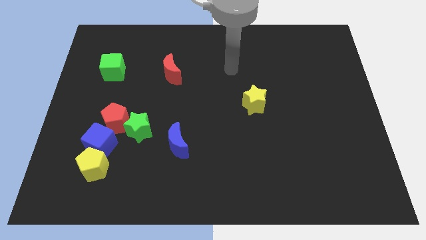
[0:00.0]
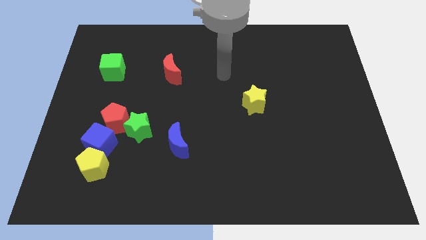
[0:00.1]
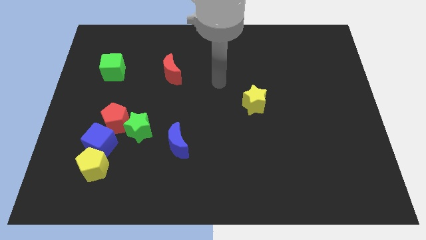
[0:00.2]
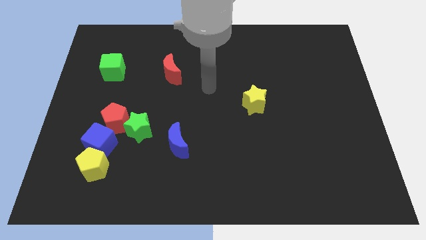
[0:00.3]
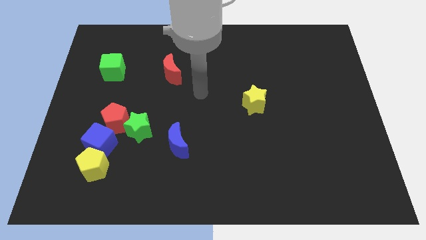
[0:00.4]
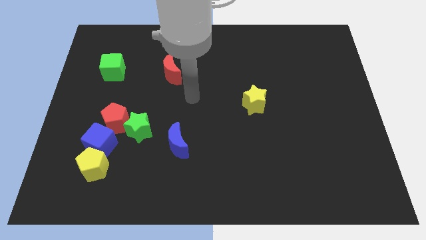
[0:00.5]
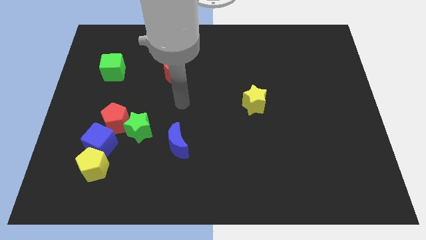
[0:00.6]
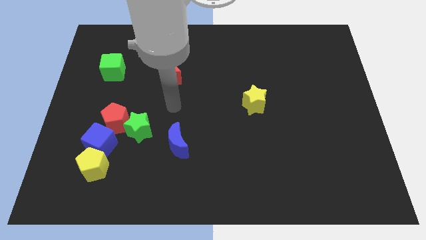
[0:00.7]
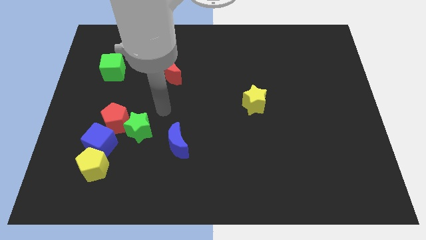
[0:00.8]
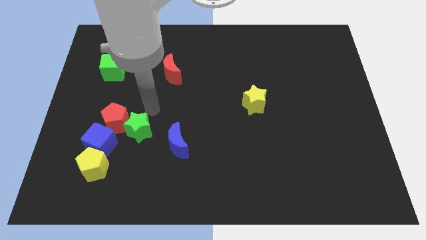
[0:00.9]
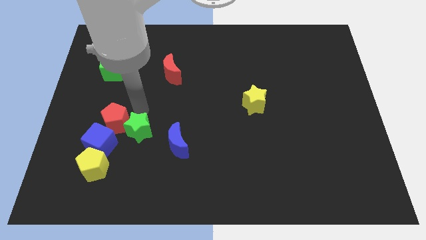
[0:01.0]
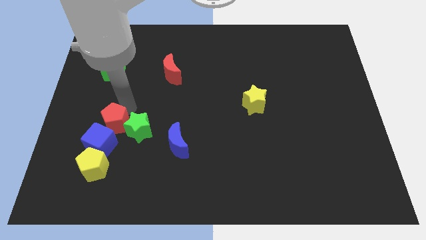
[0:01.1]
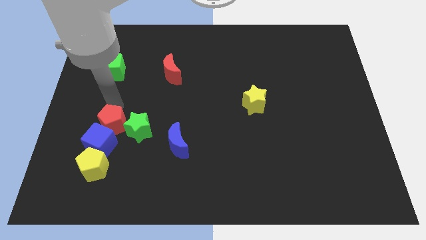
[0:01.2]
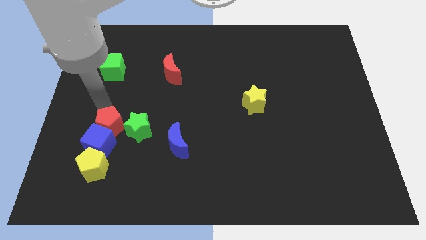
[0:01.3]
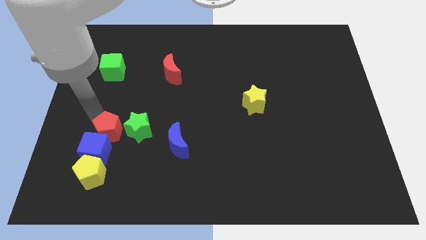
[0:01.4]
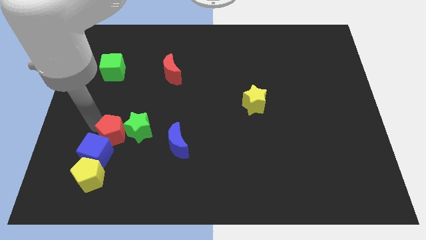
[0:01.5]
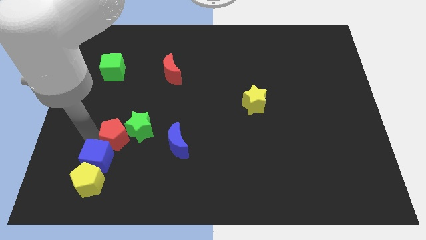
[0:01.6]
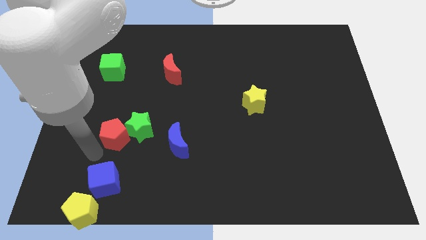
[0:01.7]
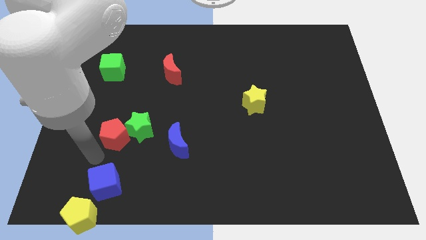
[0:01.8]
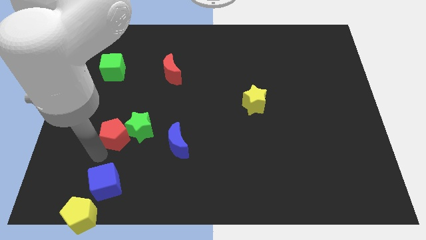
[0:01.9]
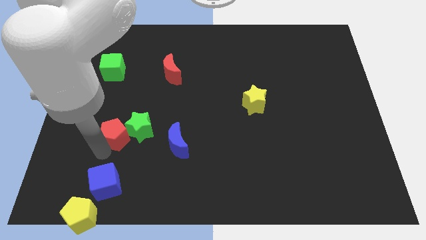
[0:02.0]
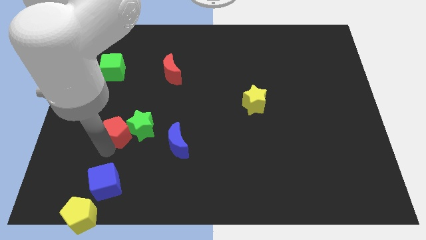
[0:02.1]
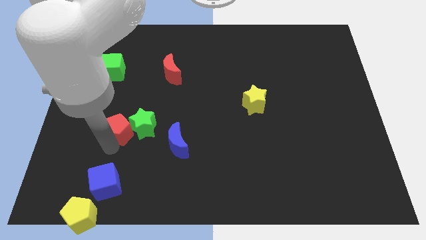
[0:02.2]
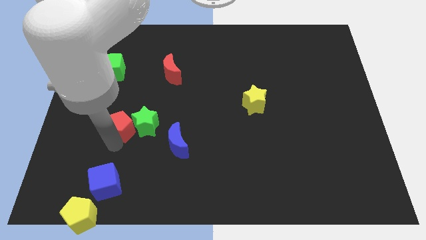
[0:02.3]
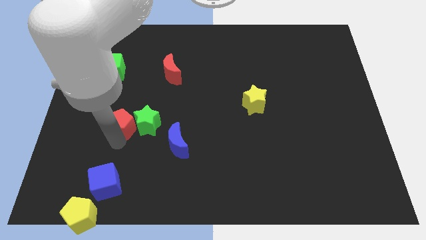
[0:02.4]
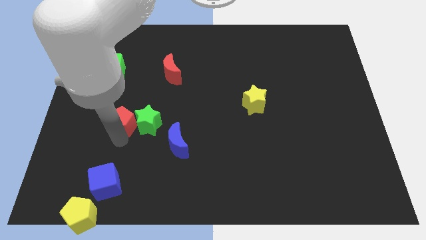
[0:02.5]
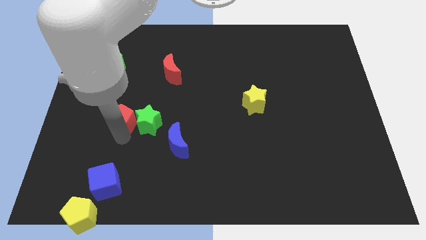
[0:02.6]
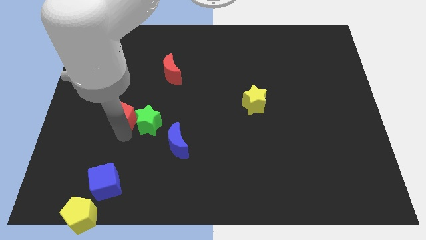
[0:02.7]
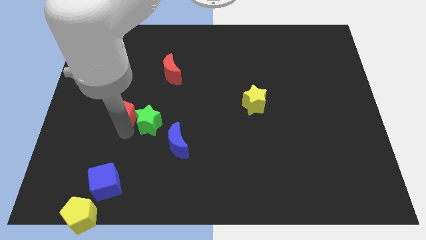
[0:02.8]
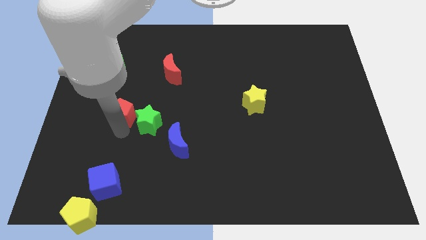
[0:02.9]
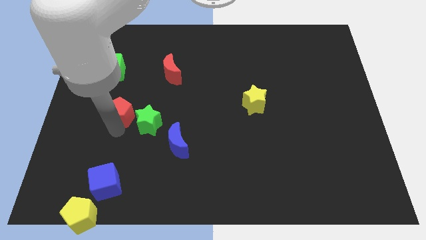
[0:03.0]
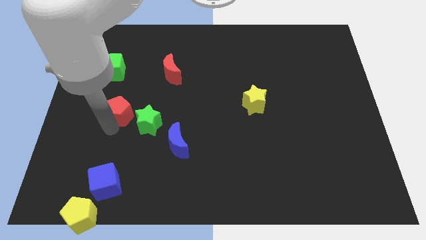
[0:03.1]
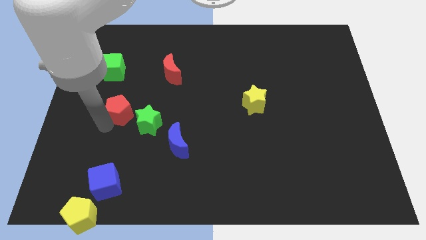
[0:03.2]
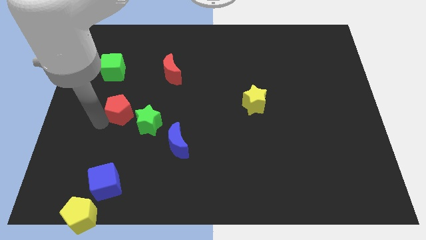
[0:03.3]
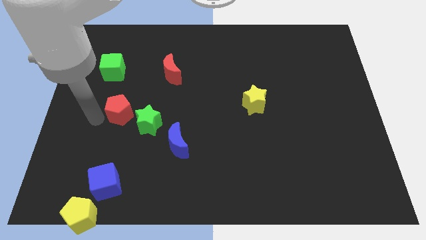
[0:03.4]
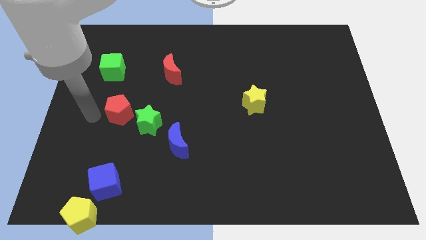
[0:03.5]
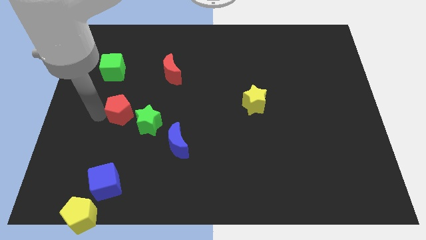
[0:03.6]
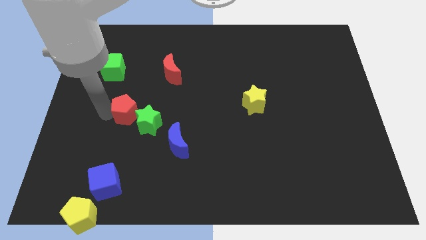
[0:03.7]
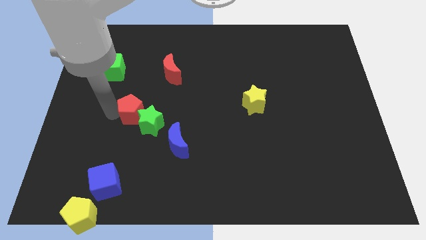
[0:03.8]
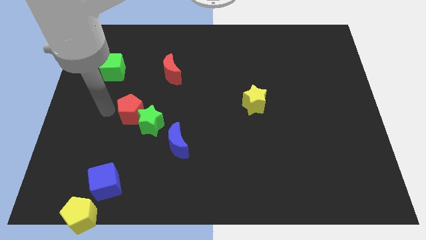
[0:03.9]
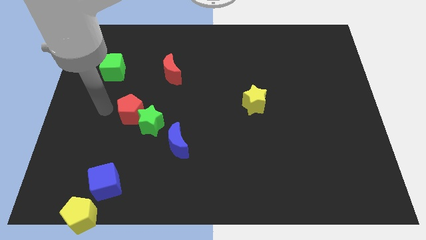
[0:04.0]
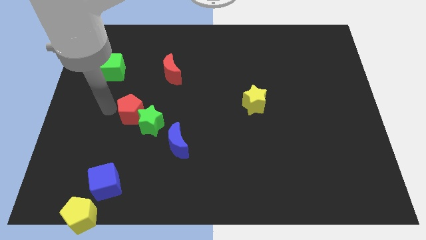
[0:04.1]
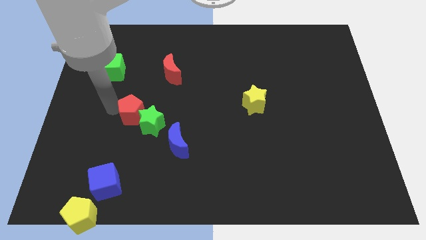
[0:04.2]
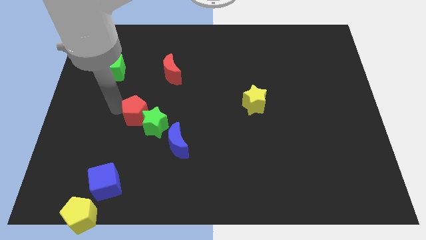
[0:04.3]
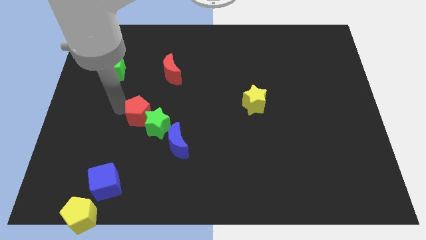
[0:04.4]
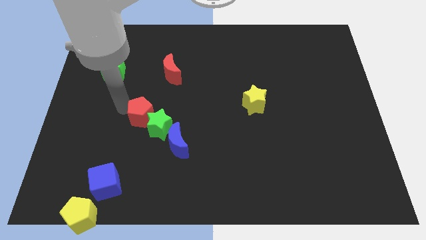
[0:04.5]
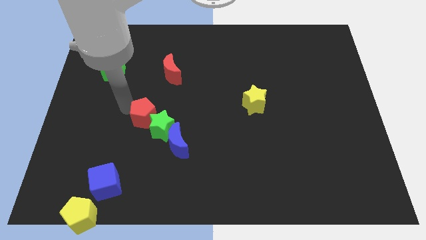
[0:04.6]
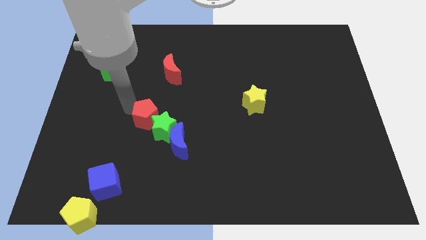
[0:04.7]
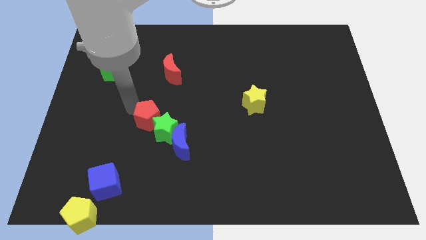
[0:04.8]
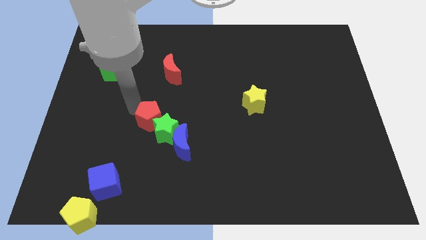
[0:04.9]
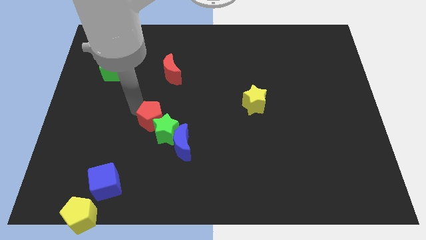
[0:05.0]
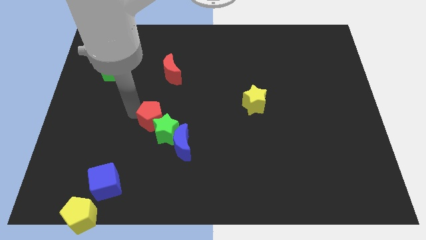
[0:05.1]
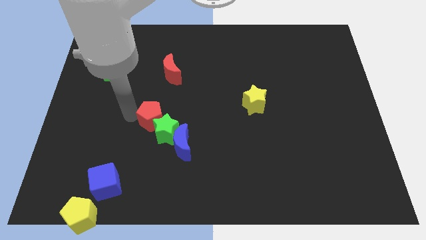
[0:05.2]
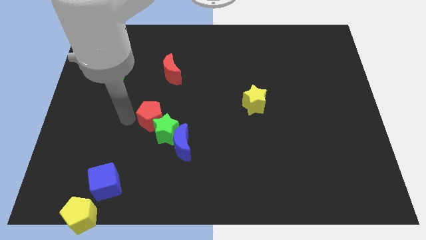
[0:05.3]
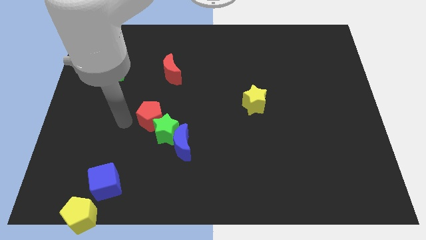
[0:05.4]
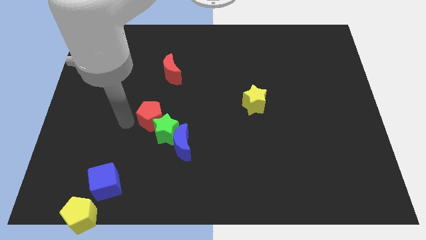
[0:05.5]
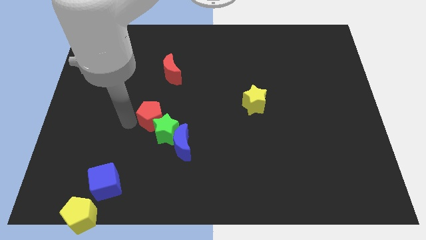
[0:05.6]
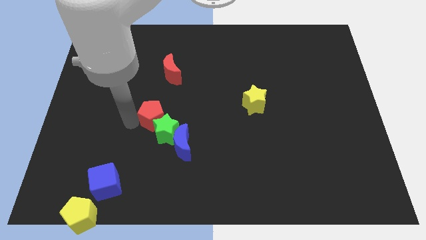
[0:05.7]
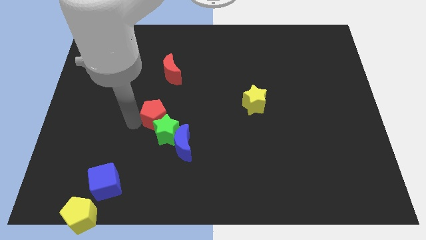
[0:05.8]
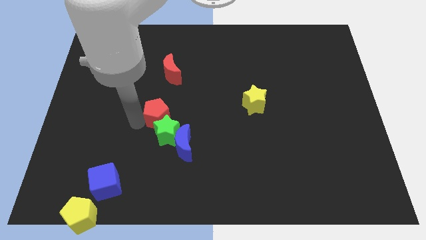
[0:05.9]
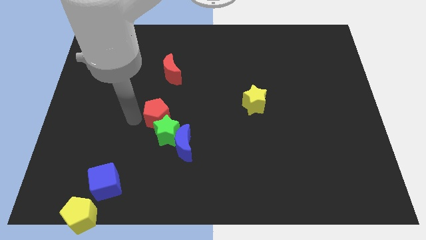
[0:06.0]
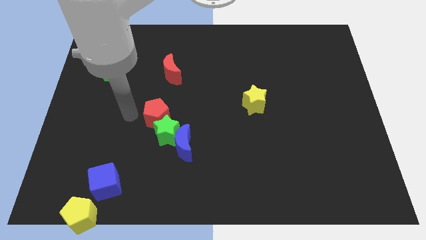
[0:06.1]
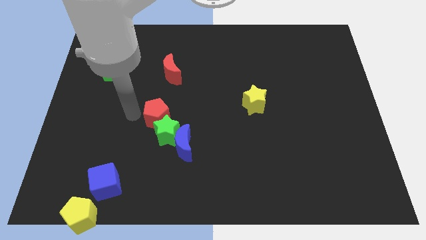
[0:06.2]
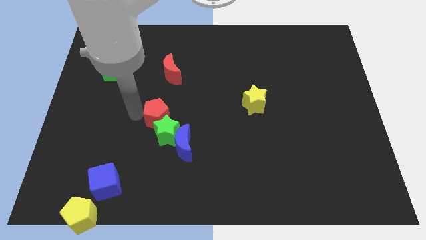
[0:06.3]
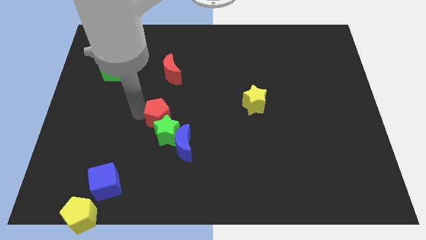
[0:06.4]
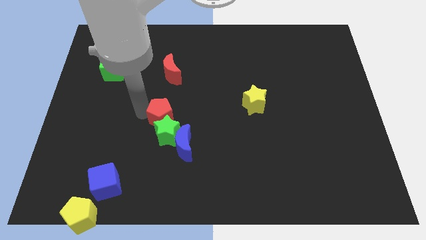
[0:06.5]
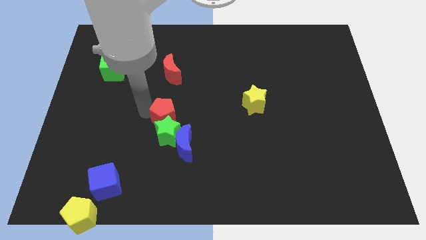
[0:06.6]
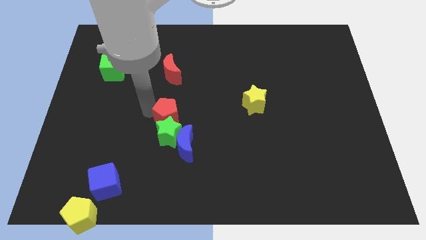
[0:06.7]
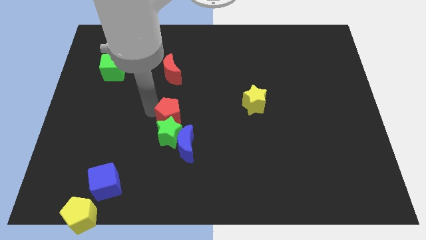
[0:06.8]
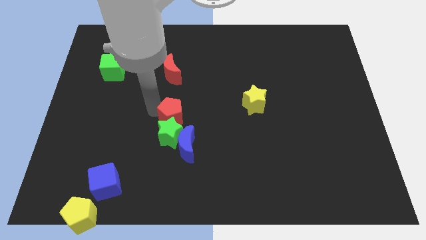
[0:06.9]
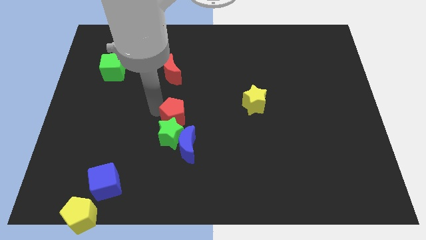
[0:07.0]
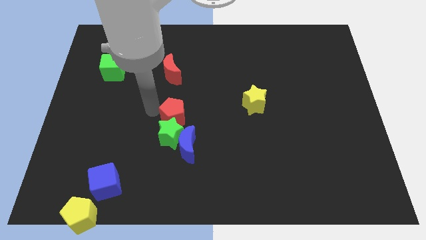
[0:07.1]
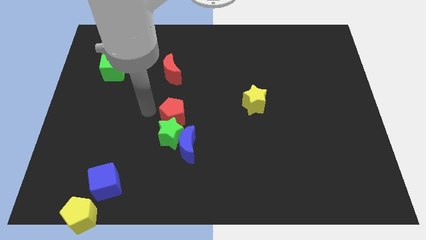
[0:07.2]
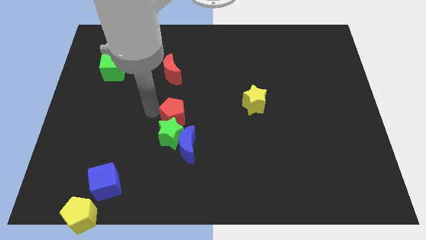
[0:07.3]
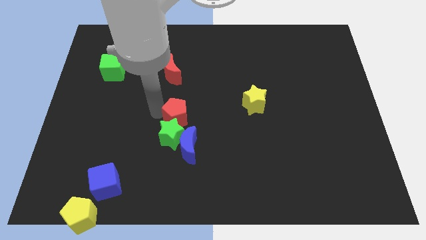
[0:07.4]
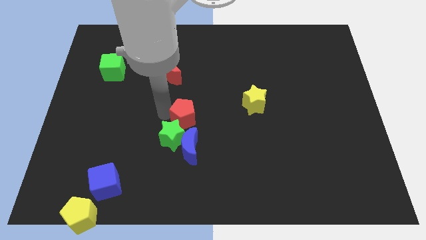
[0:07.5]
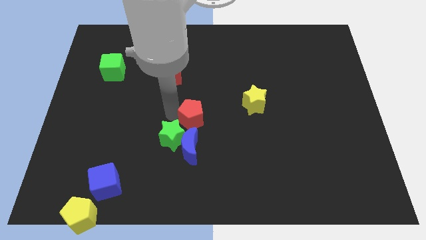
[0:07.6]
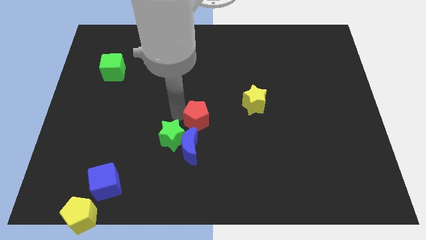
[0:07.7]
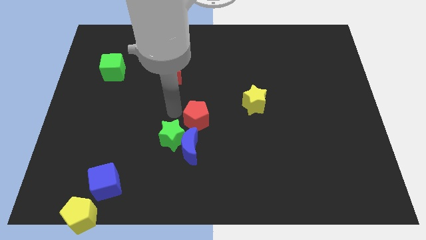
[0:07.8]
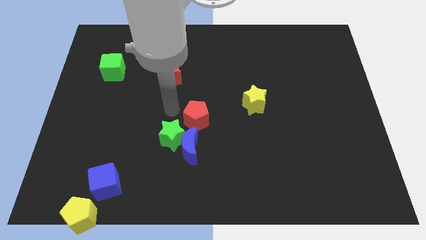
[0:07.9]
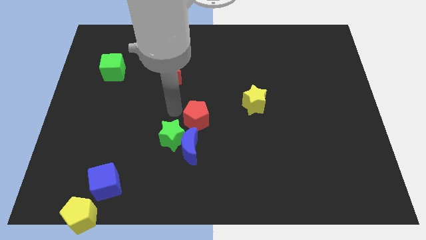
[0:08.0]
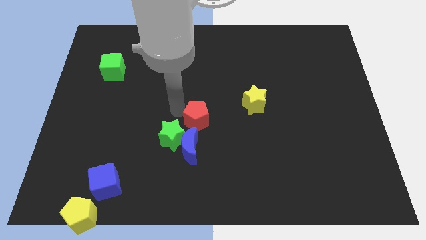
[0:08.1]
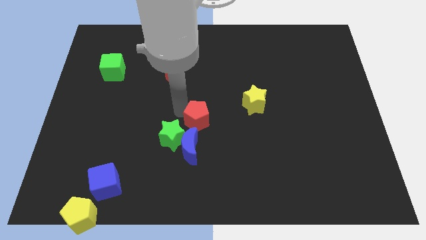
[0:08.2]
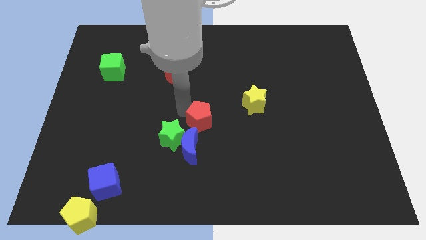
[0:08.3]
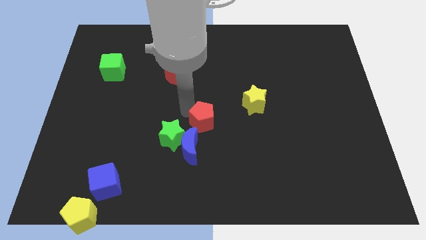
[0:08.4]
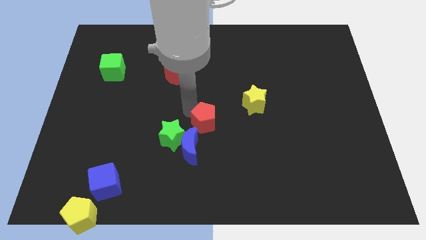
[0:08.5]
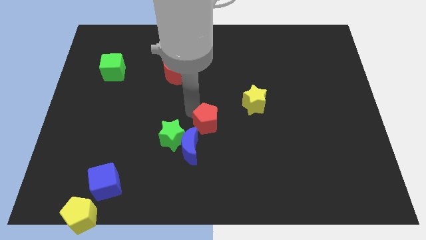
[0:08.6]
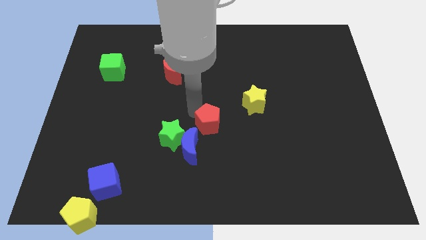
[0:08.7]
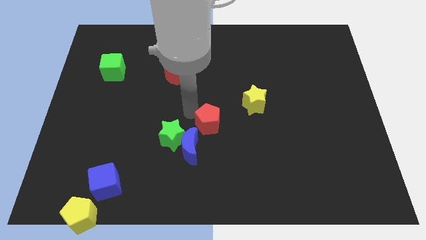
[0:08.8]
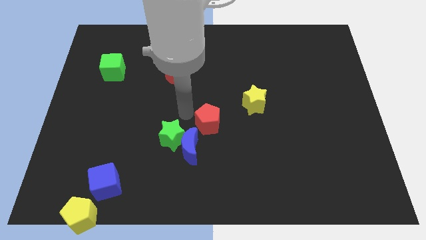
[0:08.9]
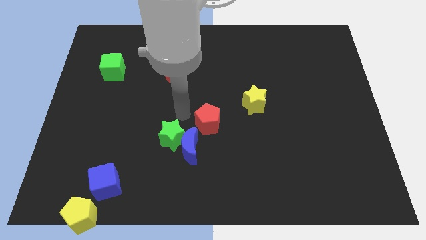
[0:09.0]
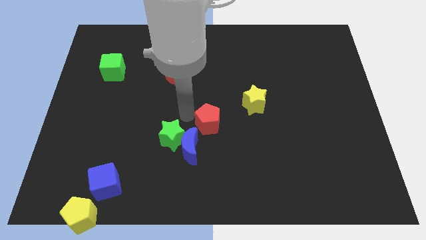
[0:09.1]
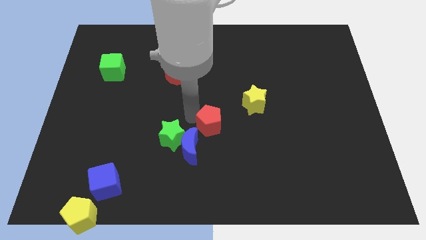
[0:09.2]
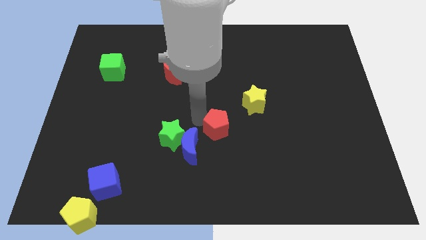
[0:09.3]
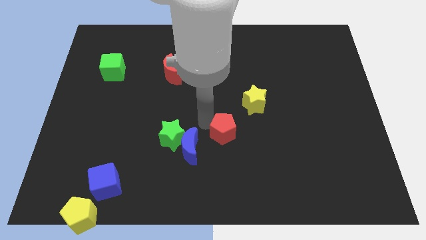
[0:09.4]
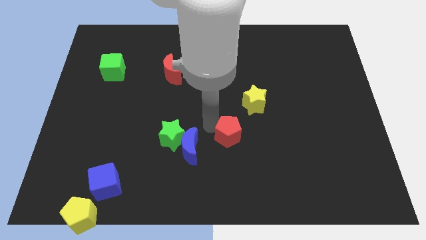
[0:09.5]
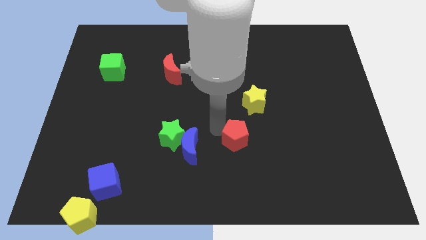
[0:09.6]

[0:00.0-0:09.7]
push the red pentagon to the bottom of the yellow star
